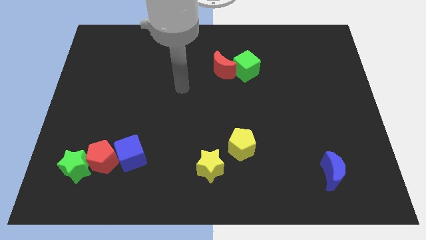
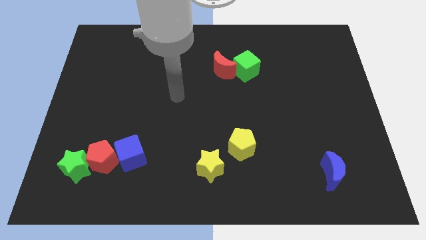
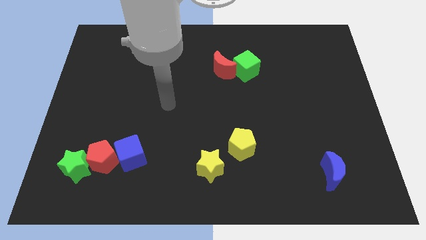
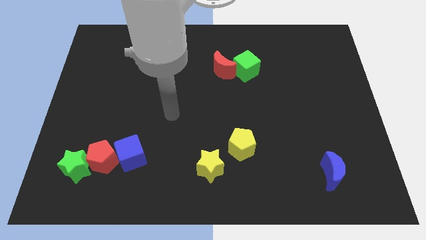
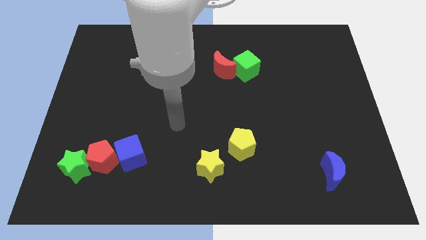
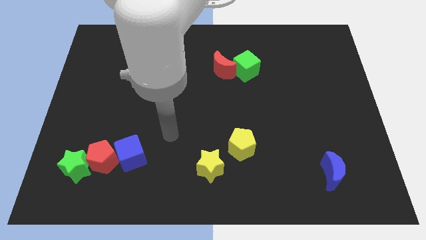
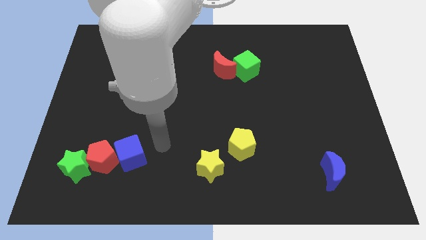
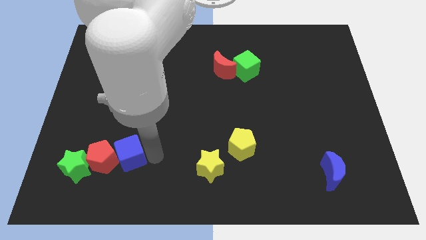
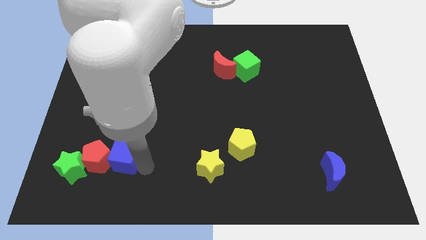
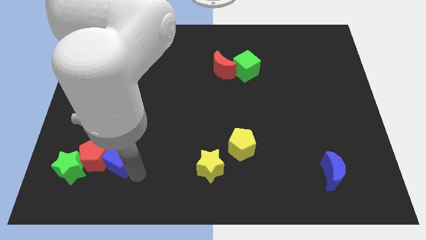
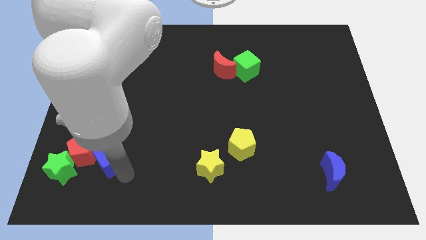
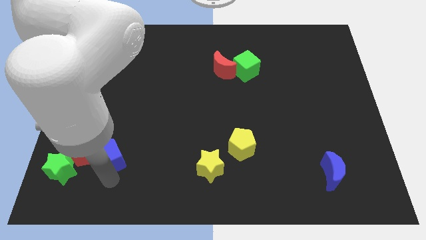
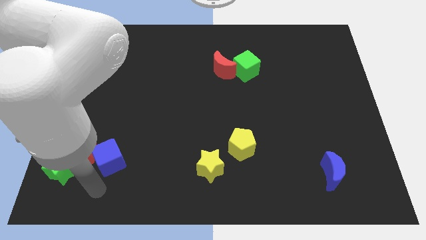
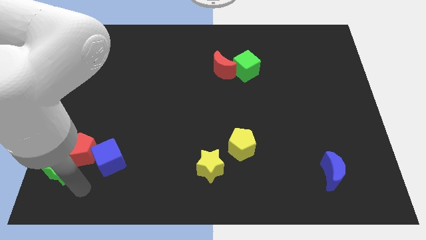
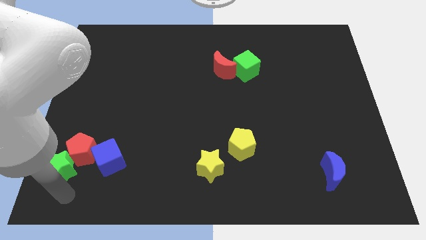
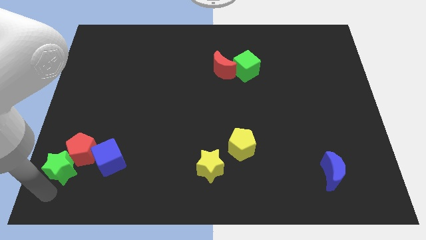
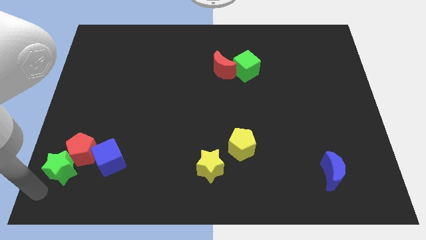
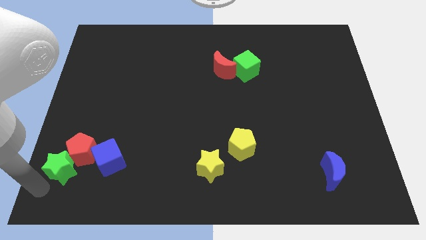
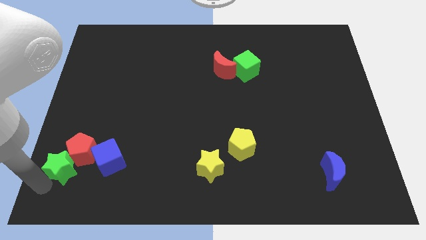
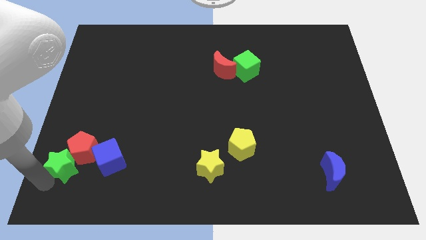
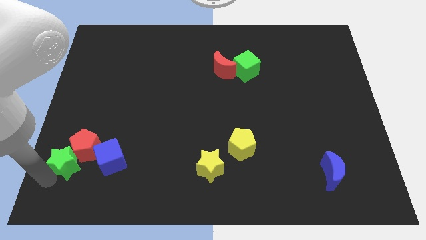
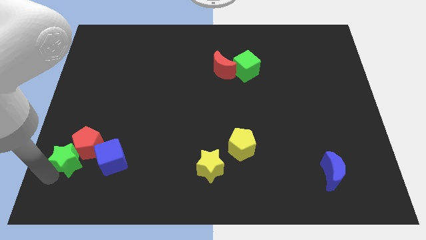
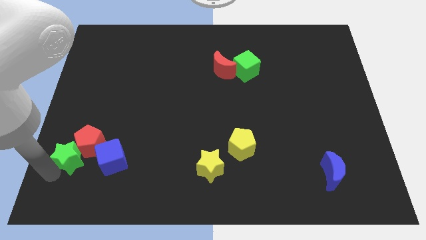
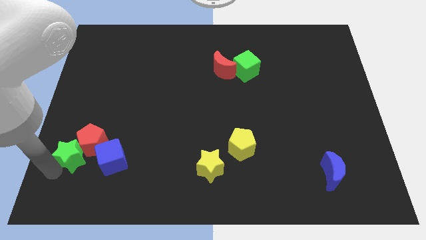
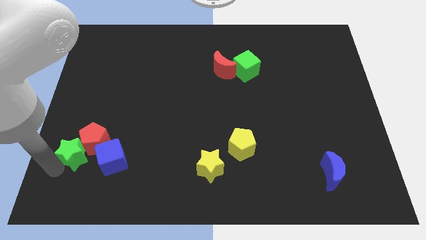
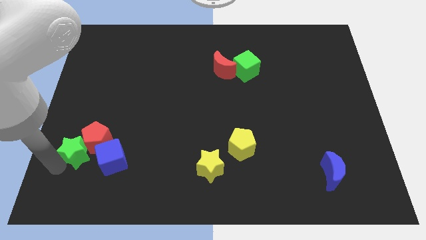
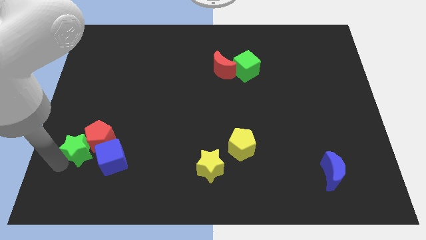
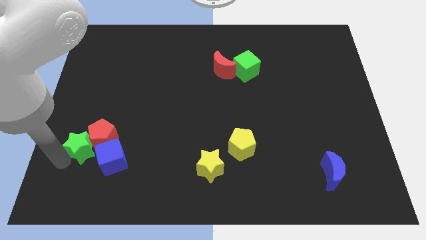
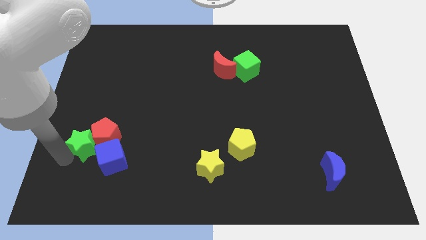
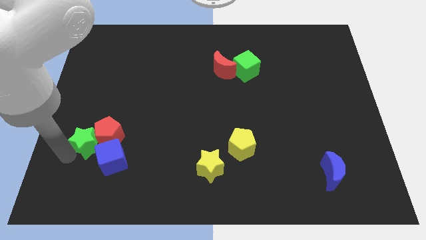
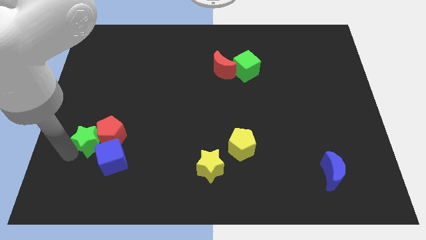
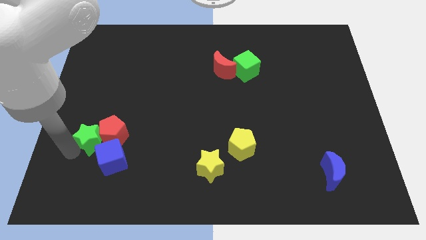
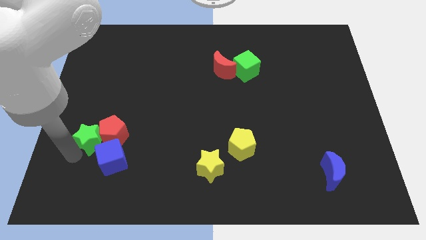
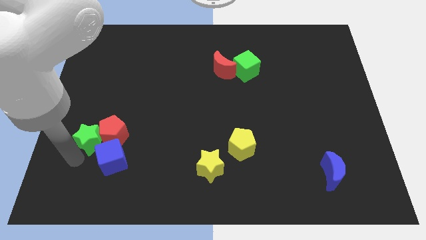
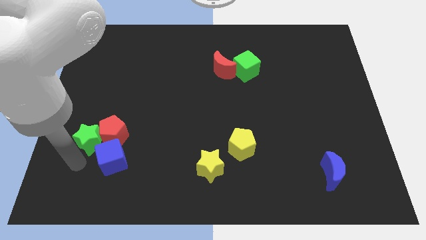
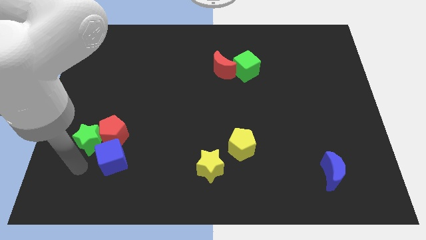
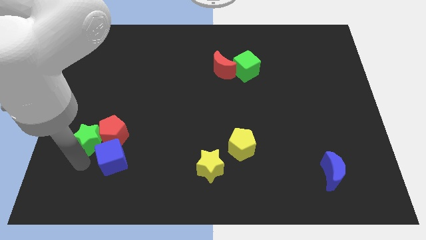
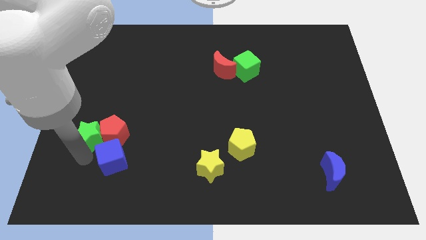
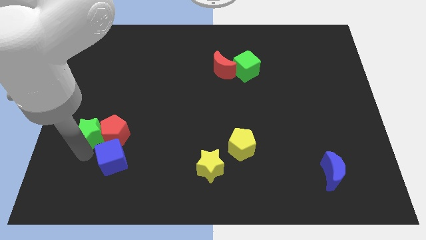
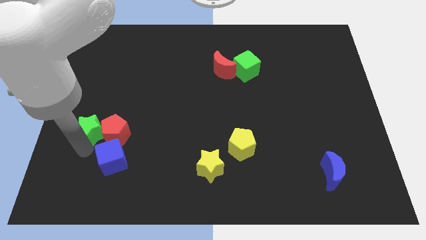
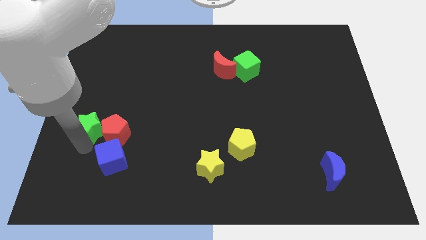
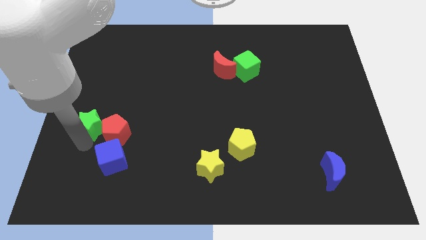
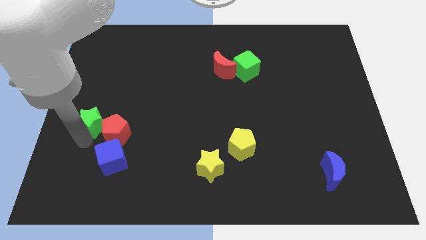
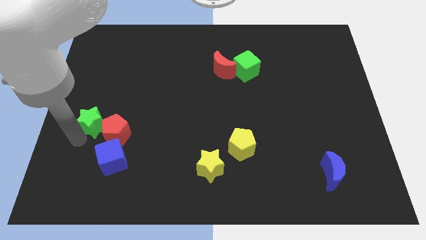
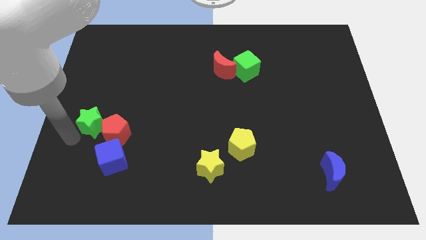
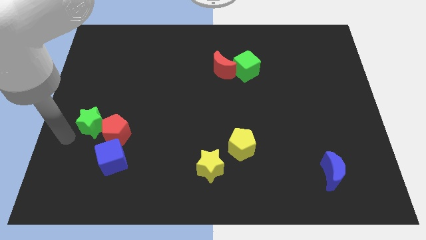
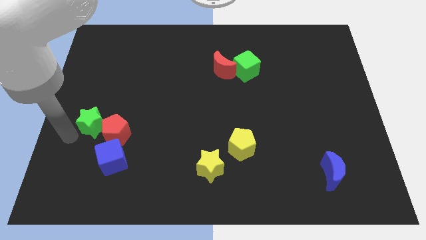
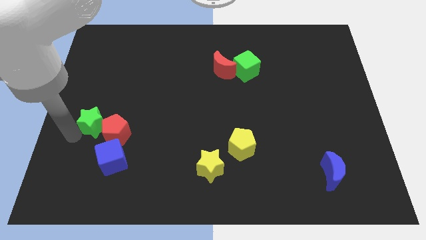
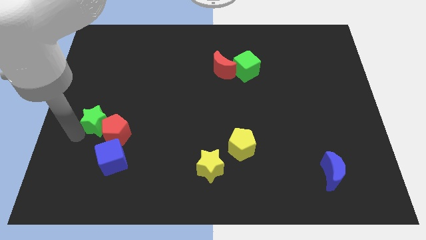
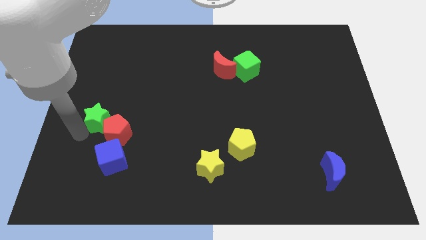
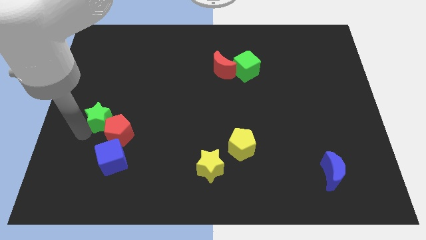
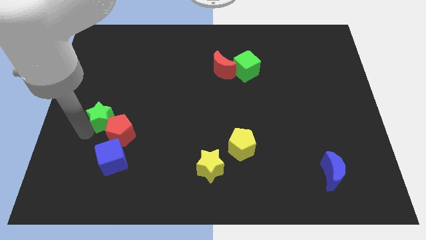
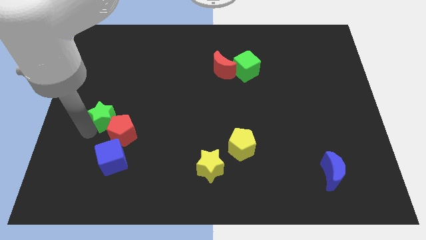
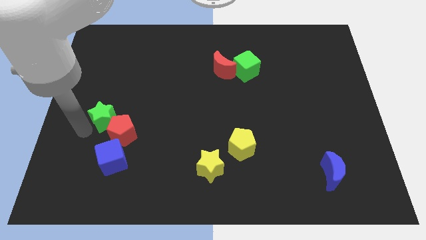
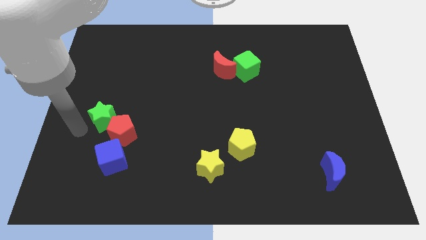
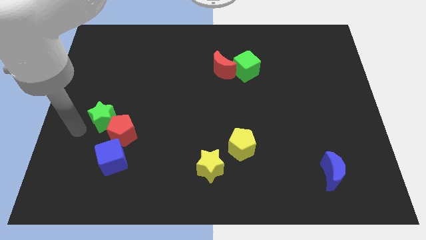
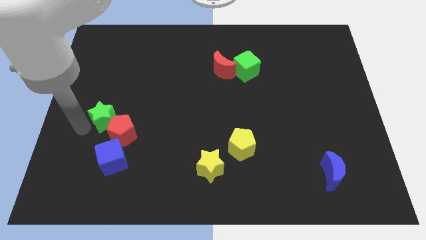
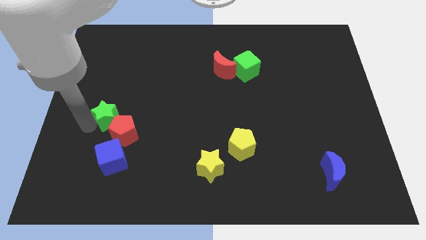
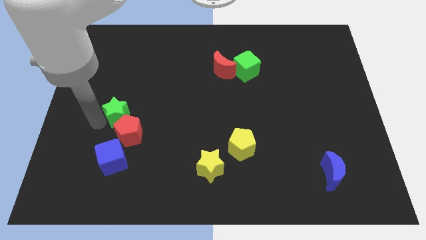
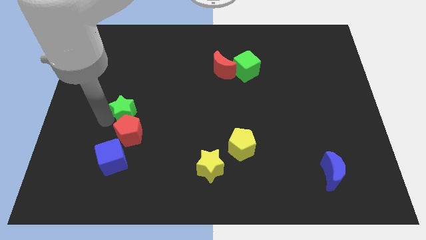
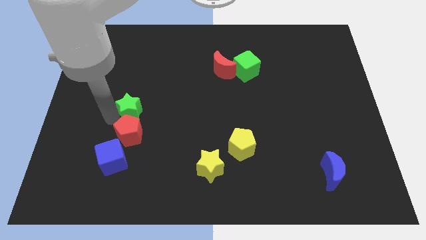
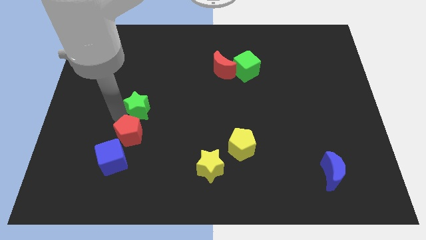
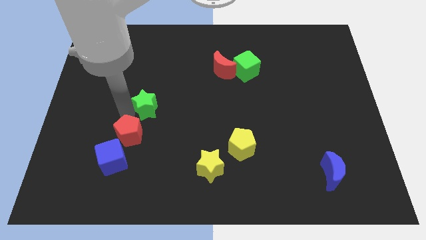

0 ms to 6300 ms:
push the green star upwards and then to the right

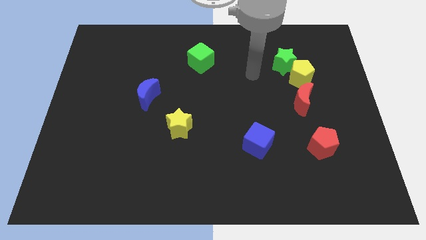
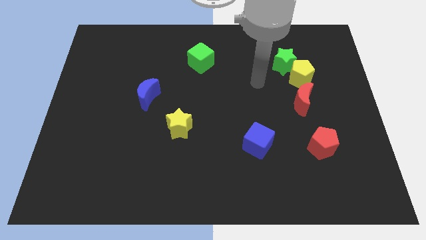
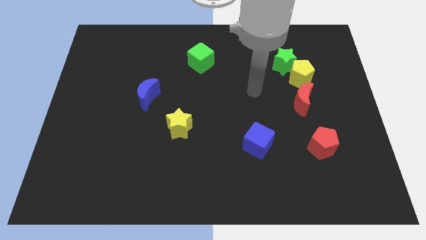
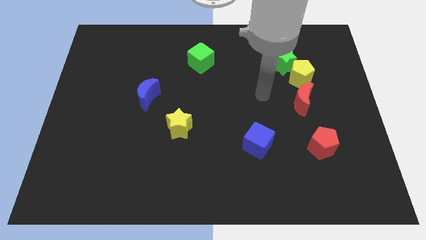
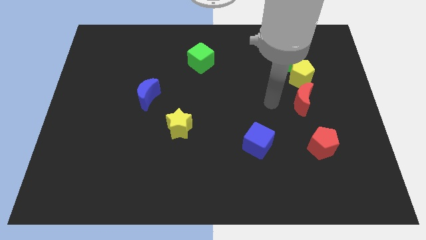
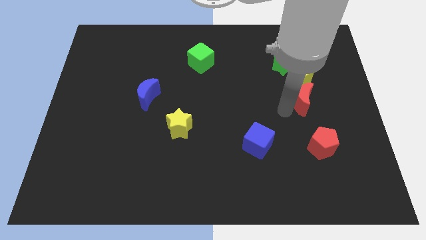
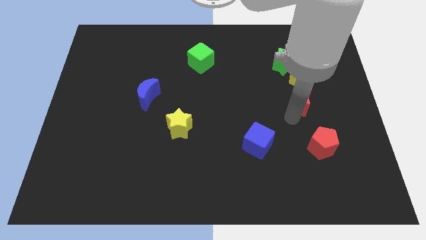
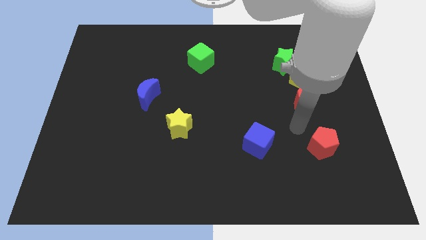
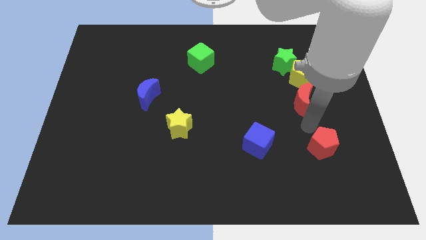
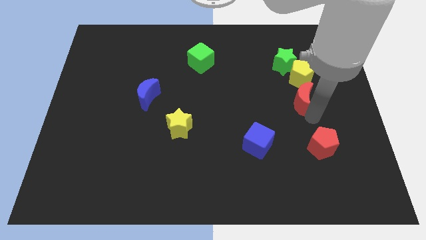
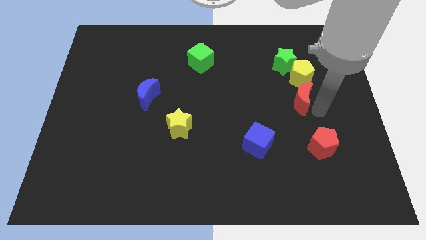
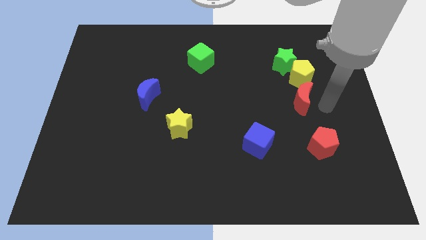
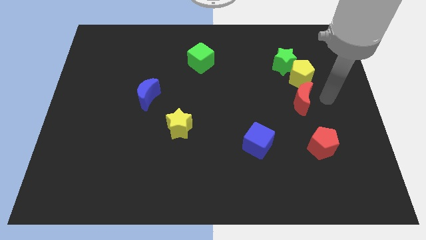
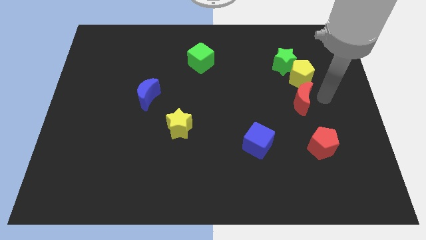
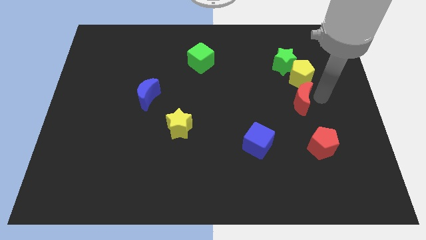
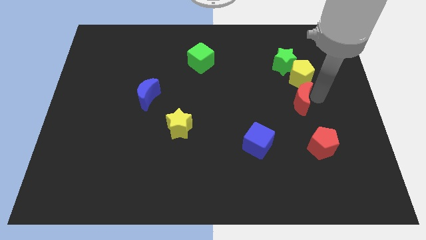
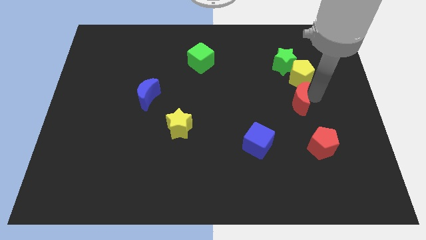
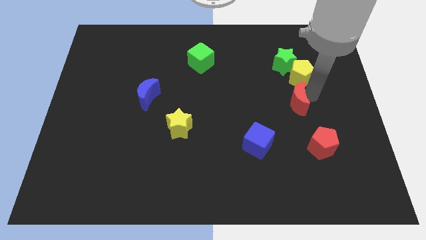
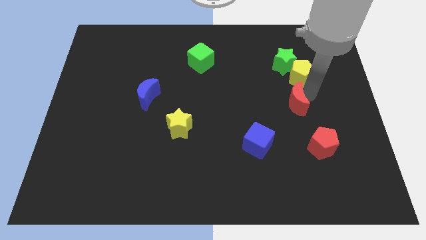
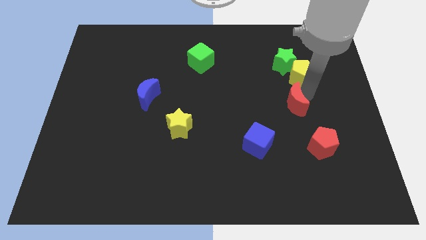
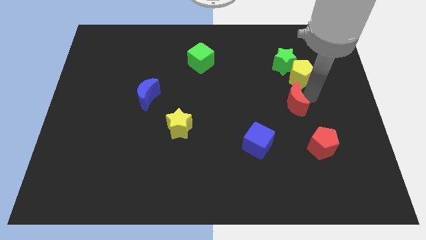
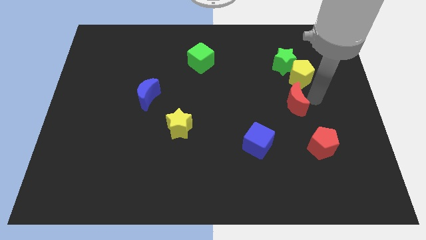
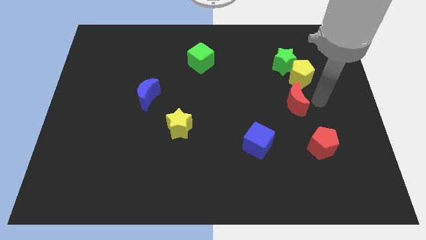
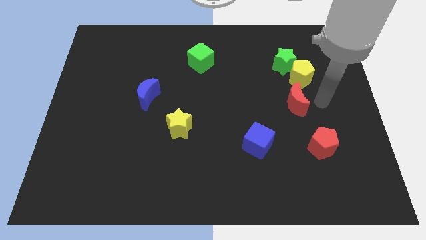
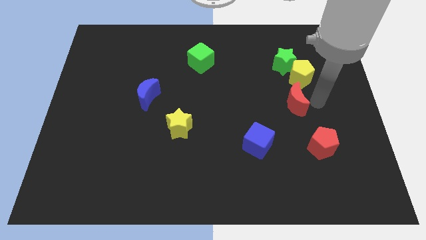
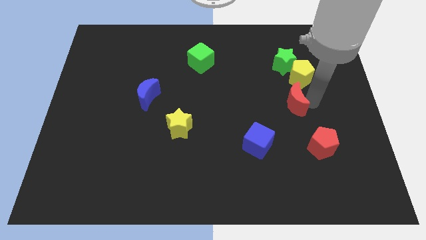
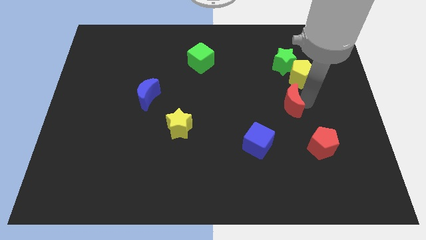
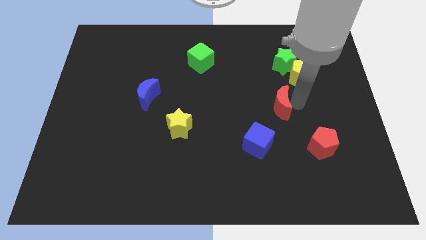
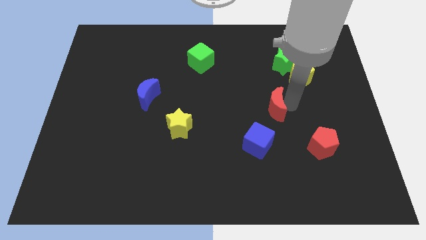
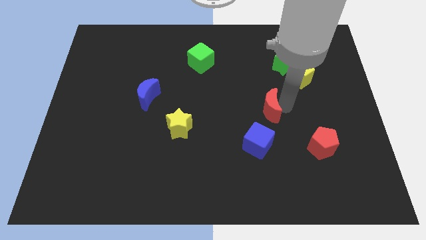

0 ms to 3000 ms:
move the red moon somewhat to the left
